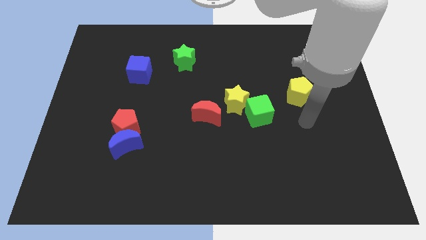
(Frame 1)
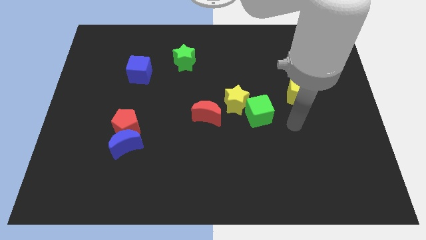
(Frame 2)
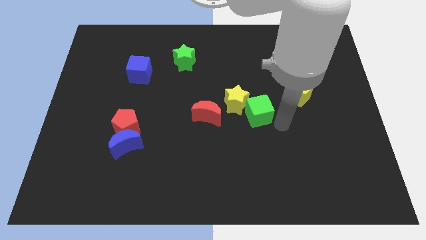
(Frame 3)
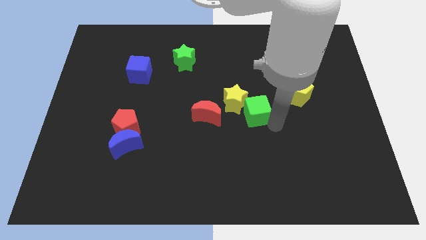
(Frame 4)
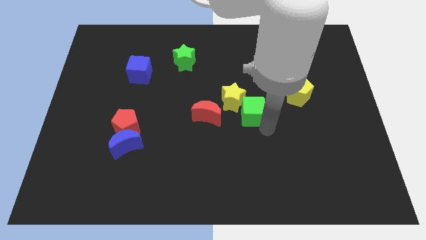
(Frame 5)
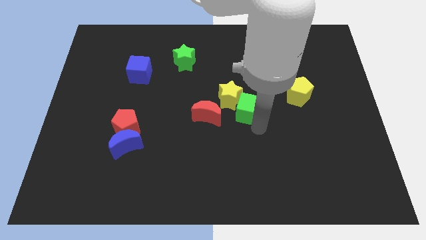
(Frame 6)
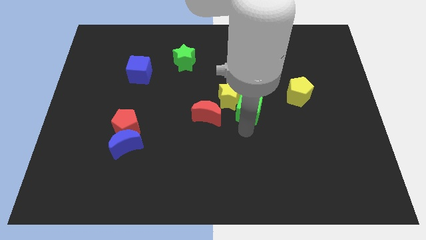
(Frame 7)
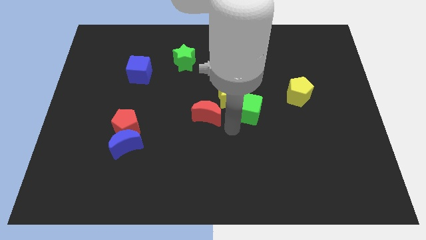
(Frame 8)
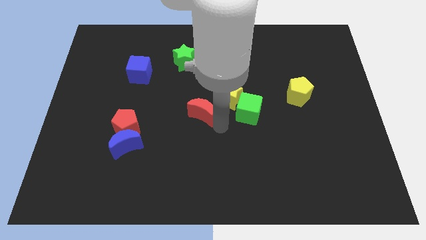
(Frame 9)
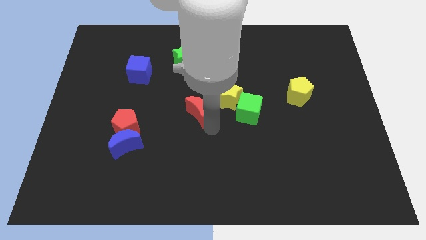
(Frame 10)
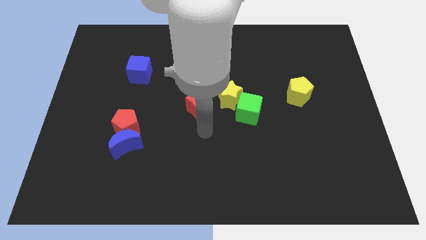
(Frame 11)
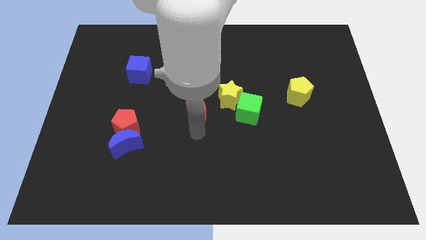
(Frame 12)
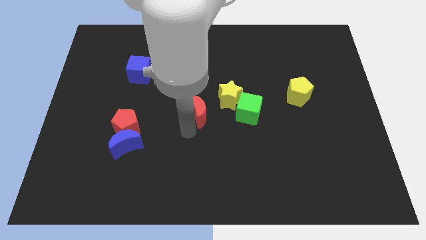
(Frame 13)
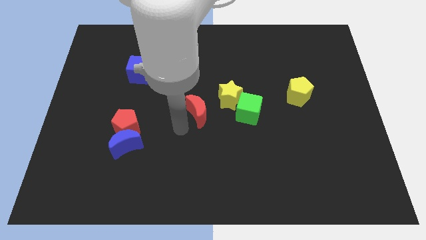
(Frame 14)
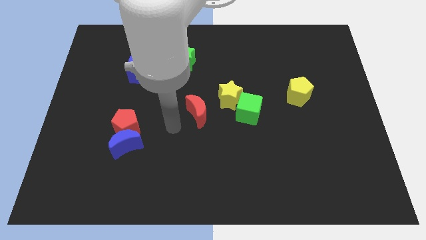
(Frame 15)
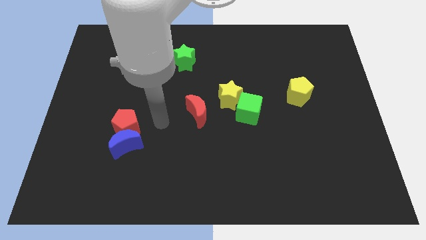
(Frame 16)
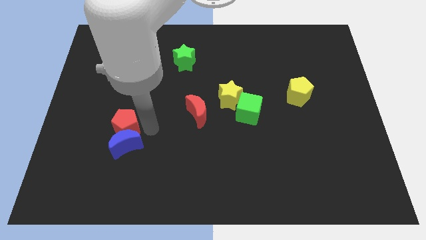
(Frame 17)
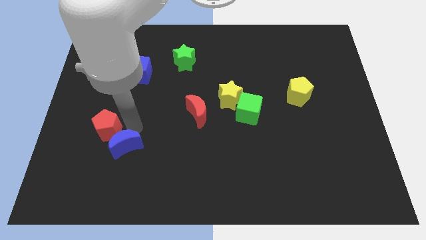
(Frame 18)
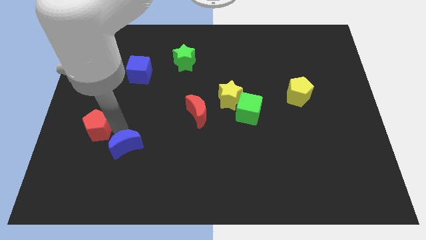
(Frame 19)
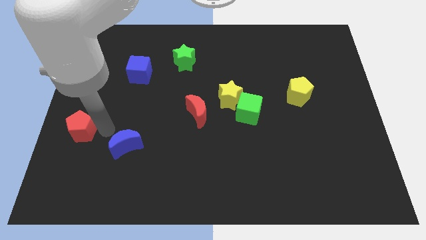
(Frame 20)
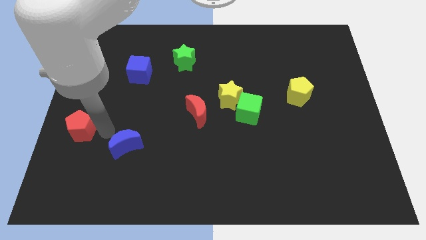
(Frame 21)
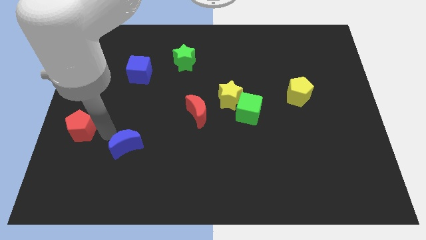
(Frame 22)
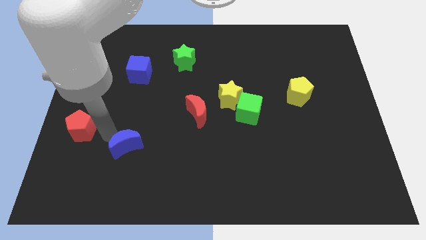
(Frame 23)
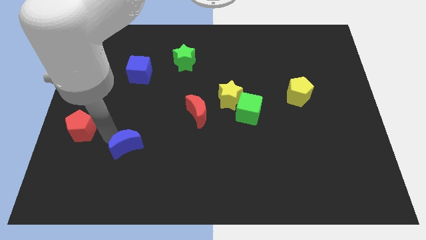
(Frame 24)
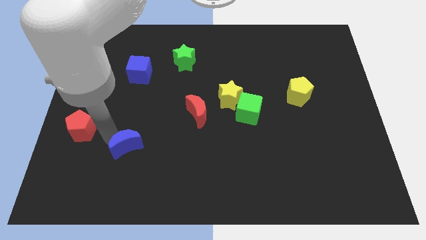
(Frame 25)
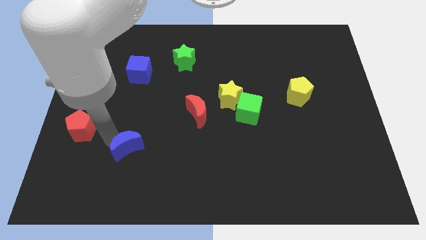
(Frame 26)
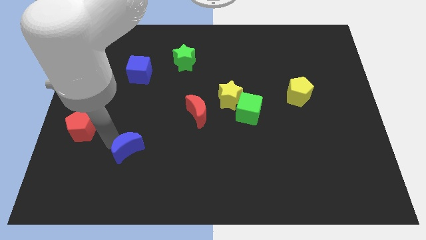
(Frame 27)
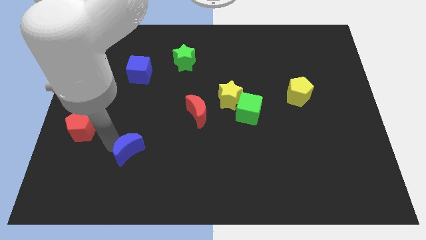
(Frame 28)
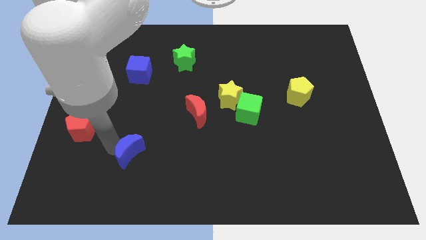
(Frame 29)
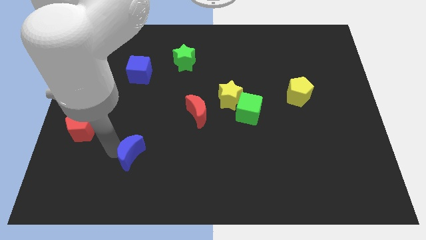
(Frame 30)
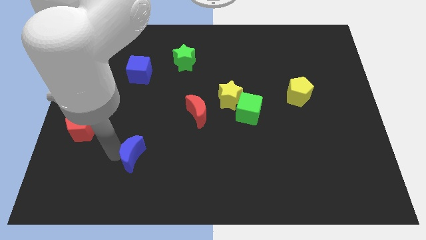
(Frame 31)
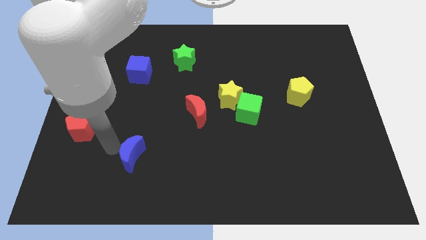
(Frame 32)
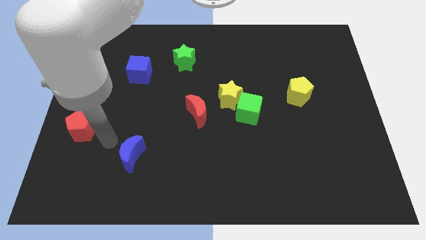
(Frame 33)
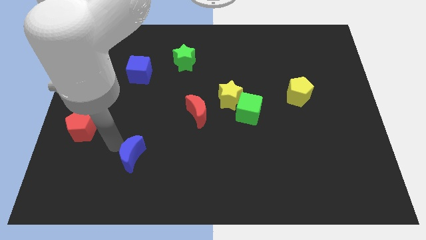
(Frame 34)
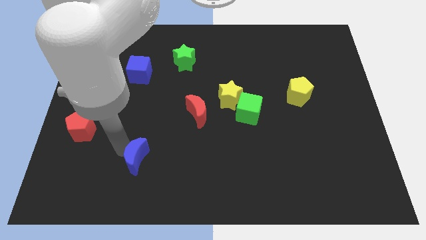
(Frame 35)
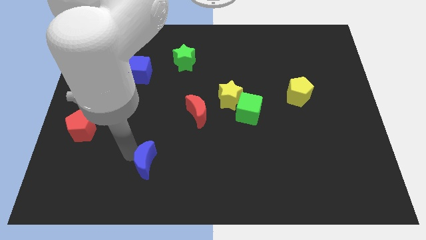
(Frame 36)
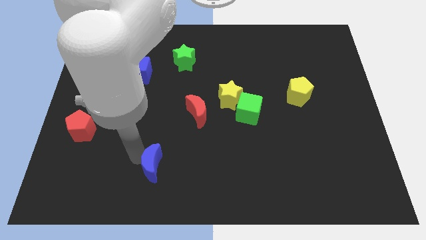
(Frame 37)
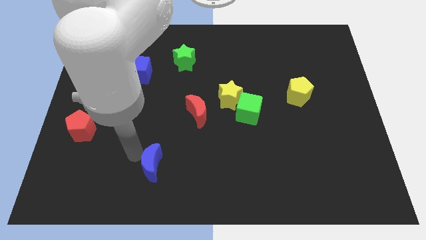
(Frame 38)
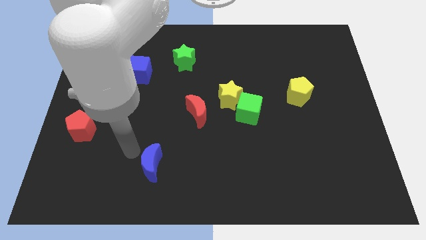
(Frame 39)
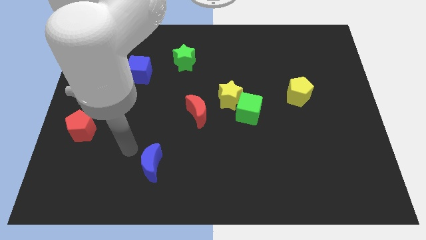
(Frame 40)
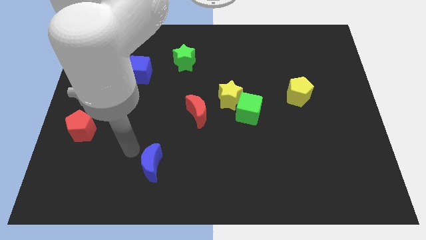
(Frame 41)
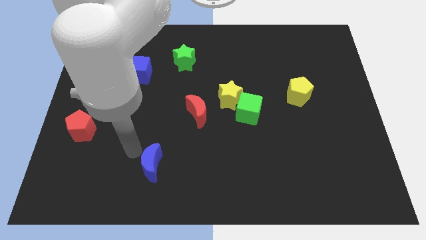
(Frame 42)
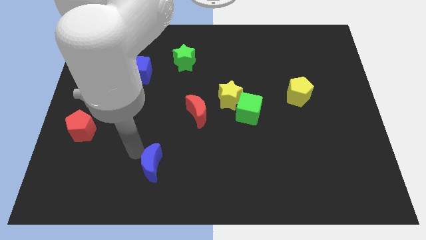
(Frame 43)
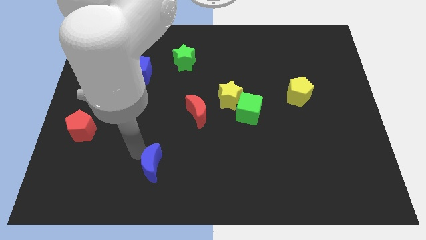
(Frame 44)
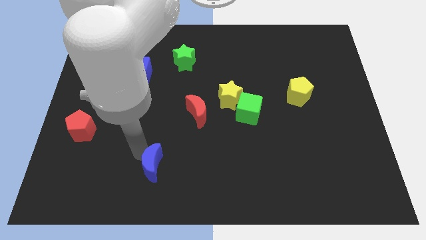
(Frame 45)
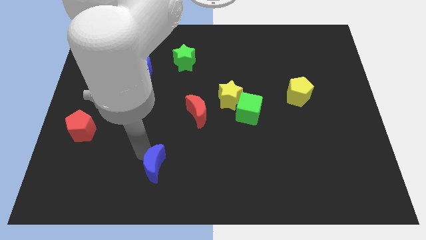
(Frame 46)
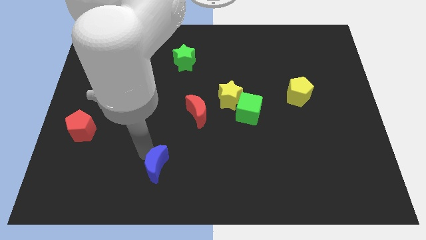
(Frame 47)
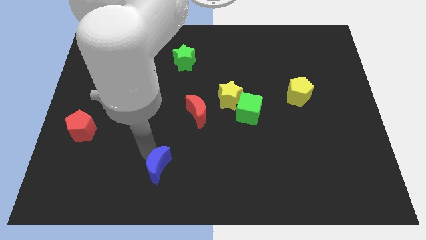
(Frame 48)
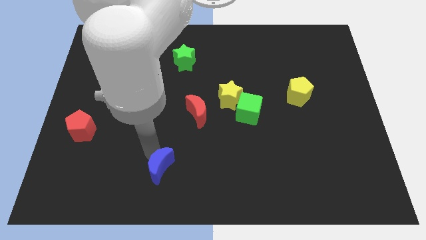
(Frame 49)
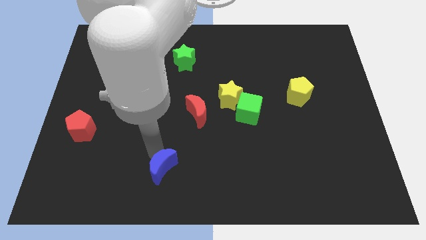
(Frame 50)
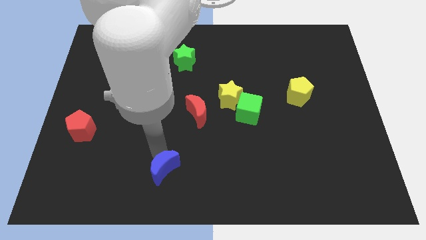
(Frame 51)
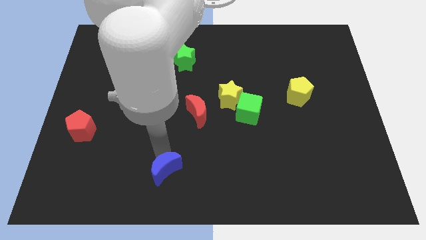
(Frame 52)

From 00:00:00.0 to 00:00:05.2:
slide the blue moon to the bottom

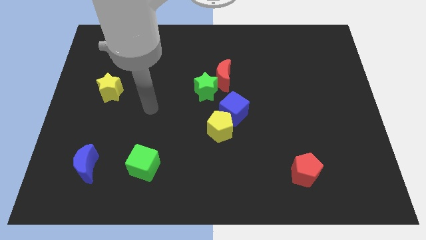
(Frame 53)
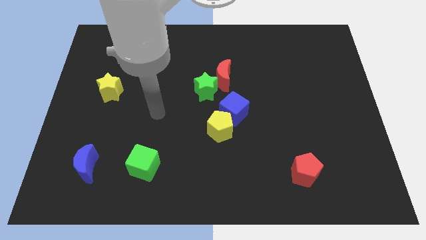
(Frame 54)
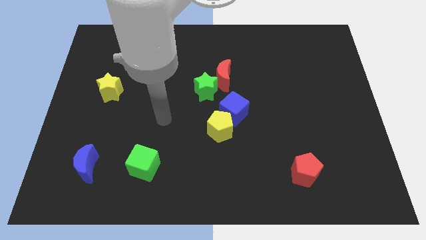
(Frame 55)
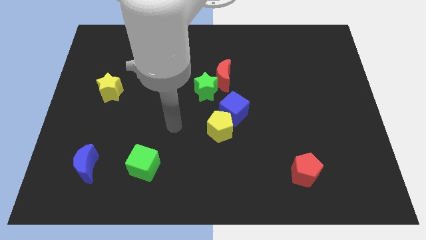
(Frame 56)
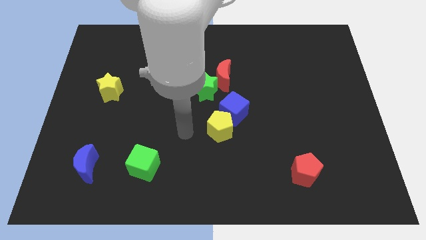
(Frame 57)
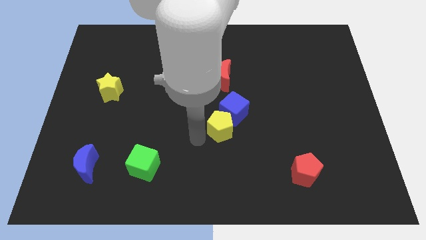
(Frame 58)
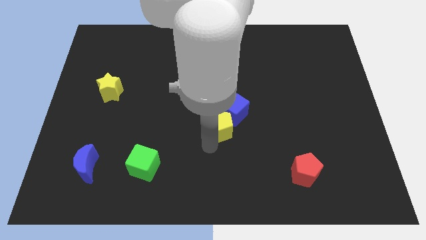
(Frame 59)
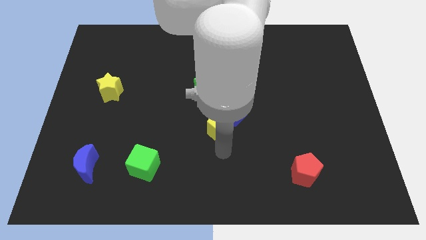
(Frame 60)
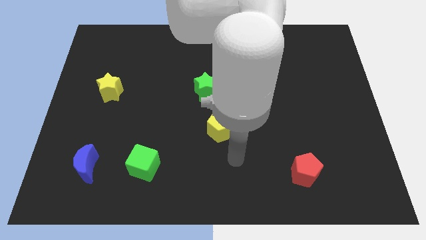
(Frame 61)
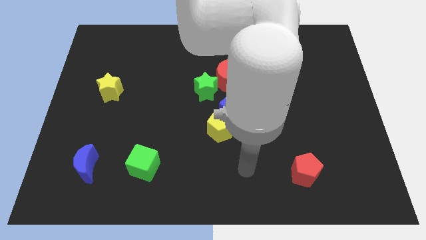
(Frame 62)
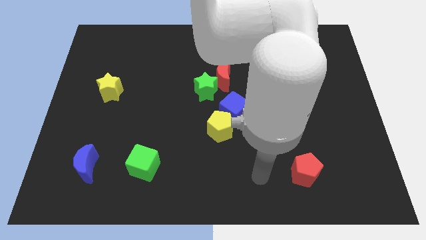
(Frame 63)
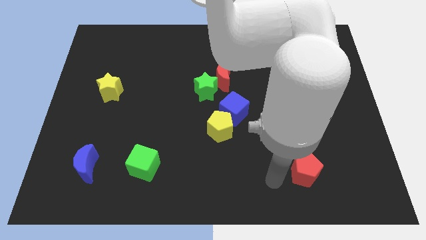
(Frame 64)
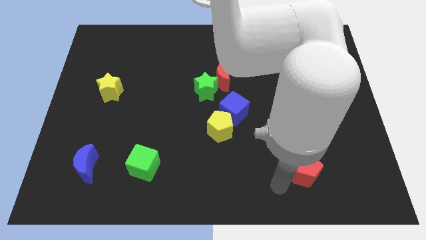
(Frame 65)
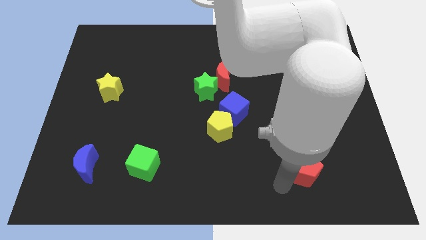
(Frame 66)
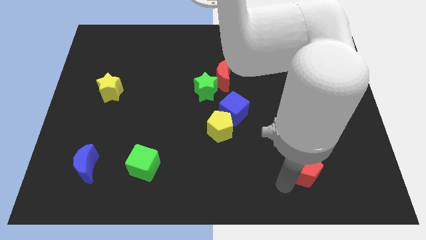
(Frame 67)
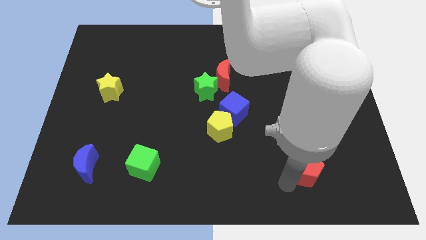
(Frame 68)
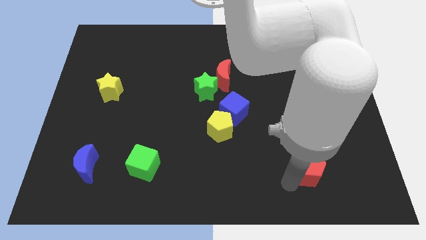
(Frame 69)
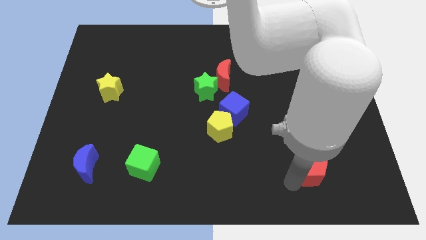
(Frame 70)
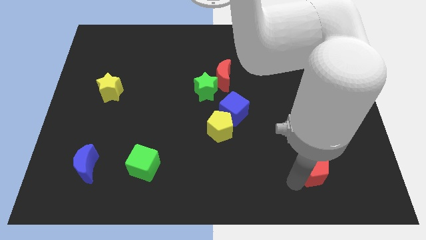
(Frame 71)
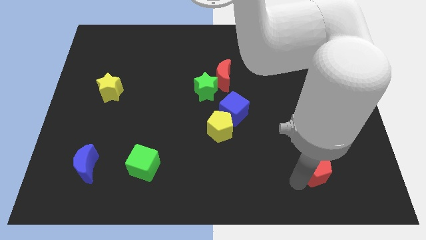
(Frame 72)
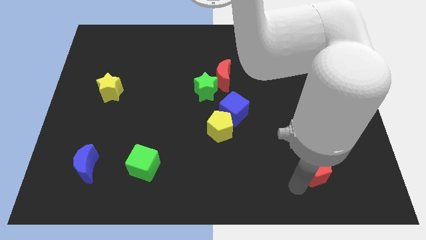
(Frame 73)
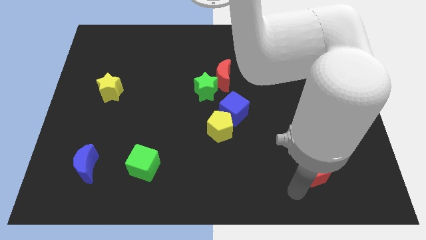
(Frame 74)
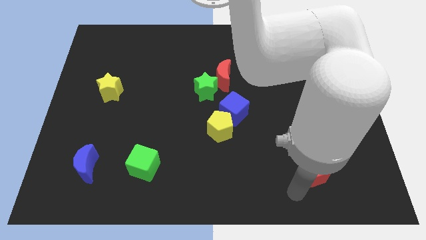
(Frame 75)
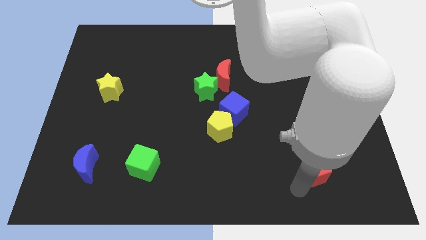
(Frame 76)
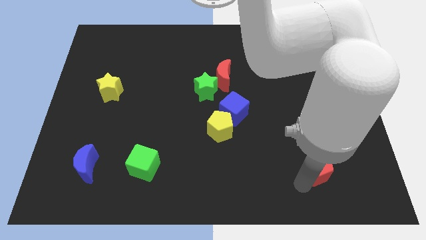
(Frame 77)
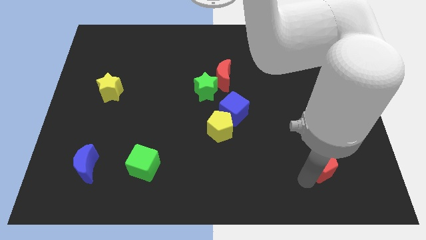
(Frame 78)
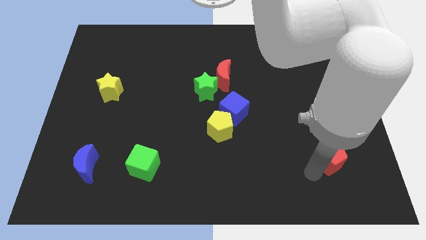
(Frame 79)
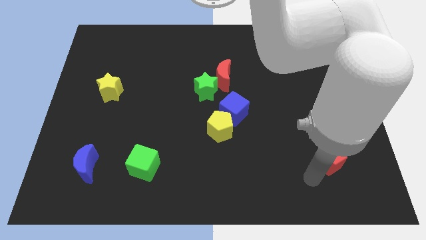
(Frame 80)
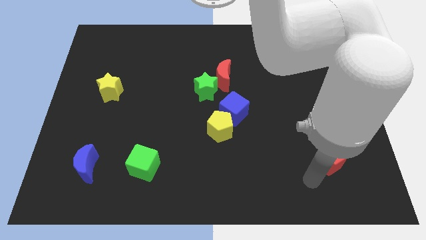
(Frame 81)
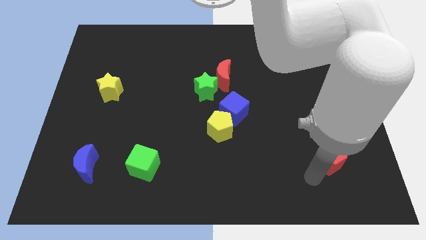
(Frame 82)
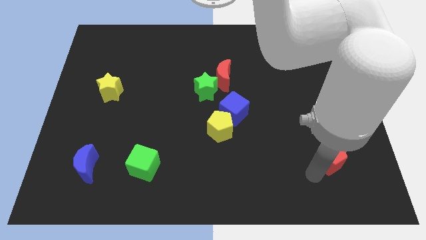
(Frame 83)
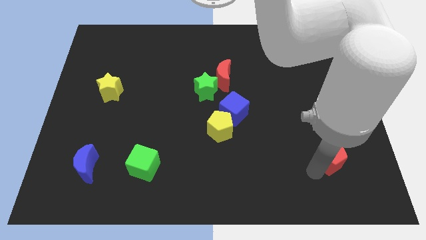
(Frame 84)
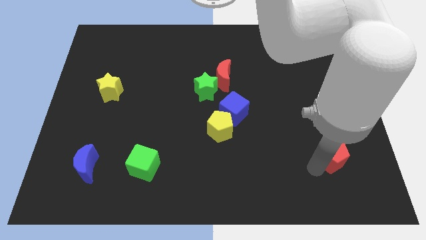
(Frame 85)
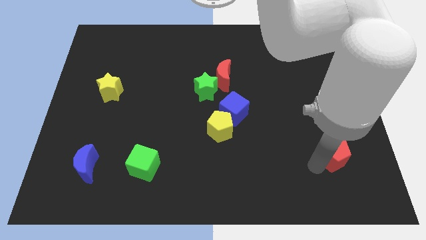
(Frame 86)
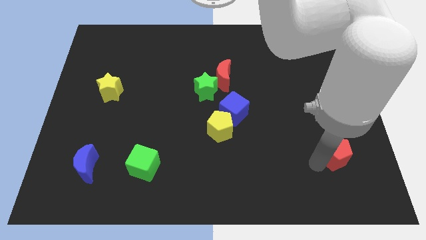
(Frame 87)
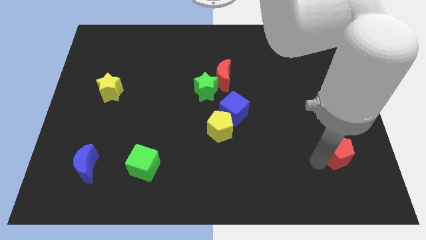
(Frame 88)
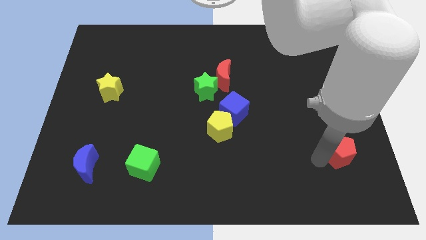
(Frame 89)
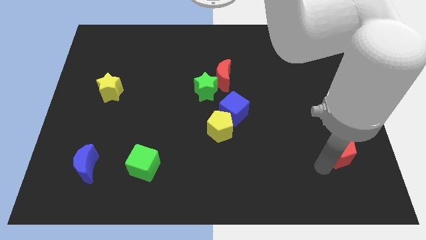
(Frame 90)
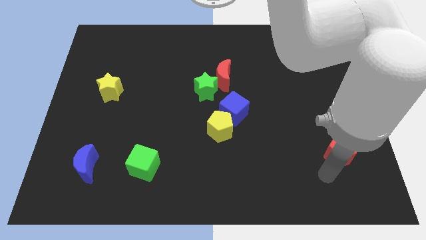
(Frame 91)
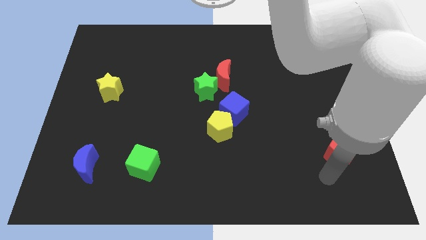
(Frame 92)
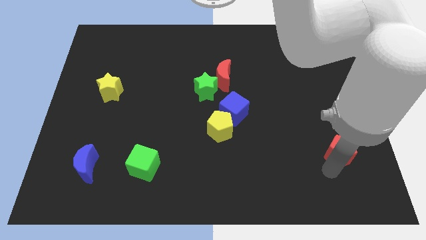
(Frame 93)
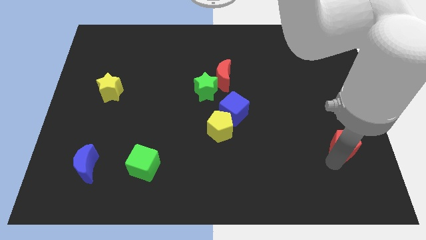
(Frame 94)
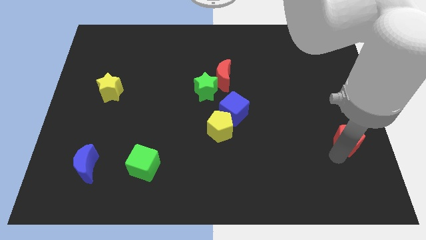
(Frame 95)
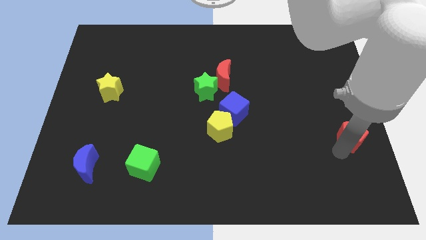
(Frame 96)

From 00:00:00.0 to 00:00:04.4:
slide the red pentagon to the right side of the board
